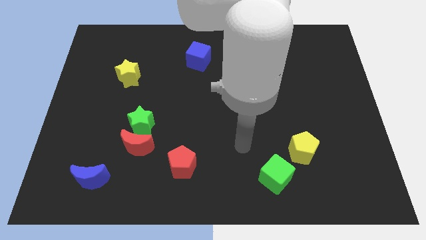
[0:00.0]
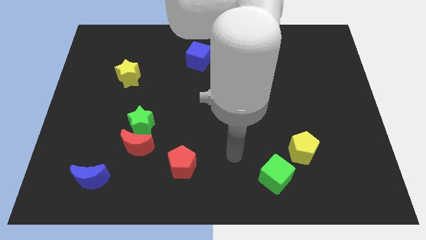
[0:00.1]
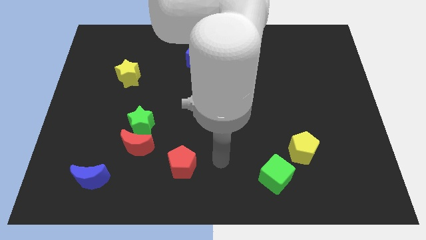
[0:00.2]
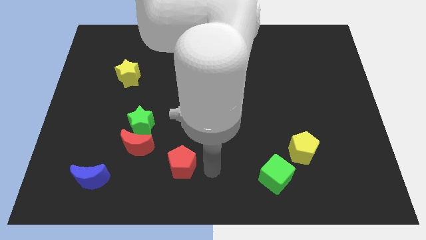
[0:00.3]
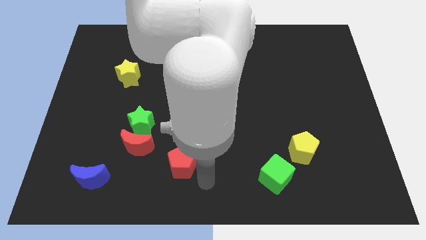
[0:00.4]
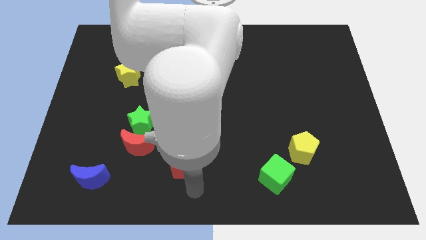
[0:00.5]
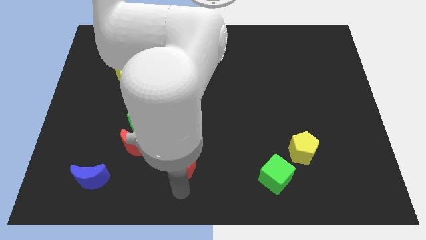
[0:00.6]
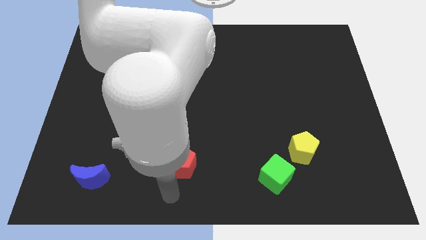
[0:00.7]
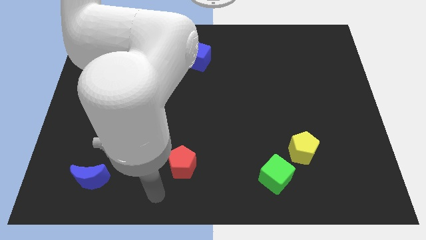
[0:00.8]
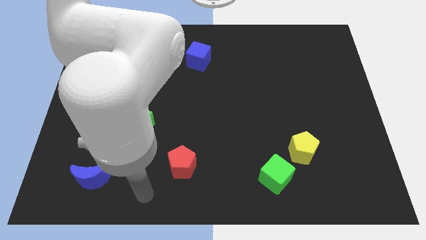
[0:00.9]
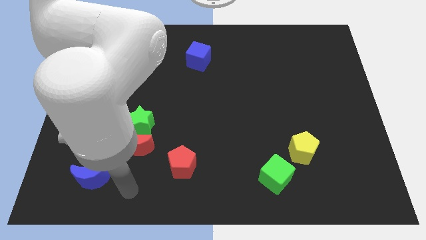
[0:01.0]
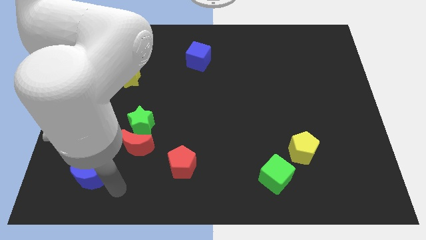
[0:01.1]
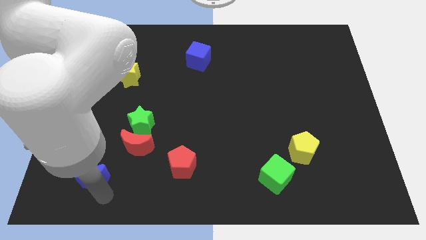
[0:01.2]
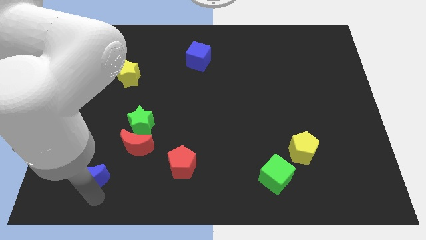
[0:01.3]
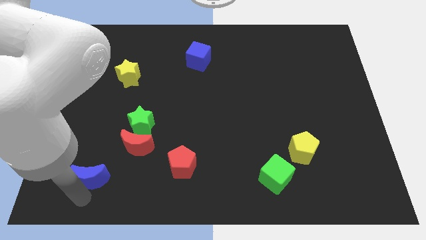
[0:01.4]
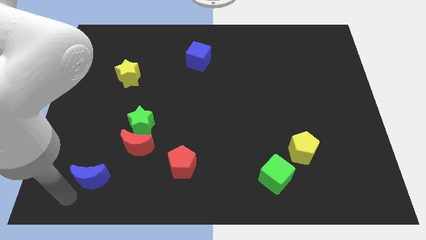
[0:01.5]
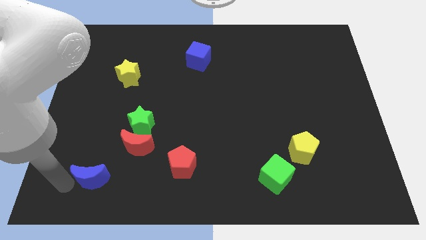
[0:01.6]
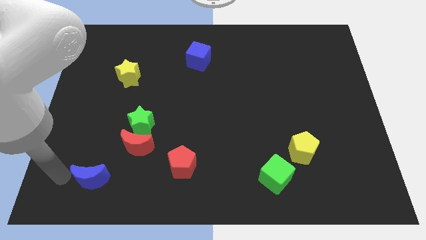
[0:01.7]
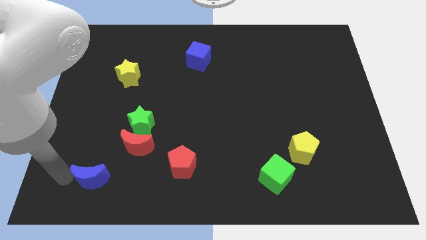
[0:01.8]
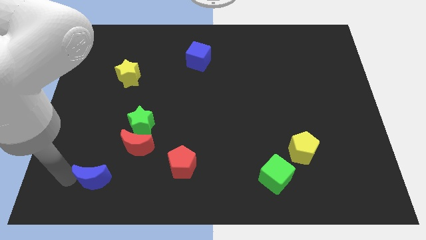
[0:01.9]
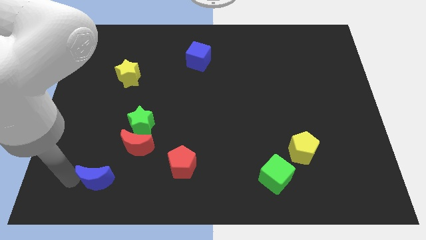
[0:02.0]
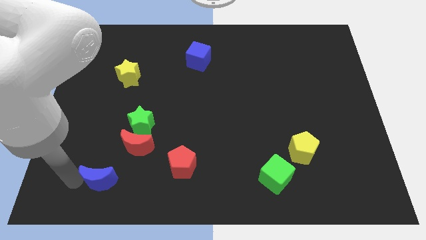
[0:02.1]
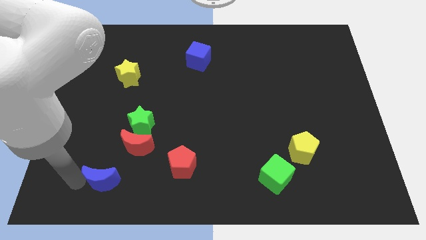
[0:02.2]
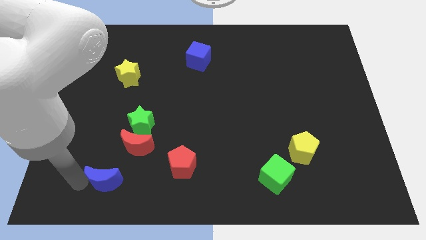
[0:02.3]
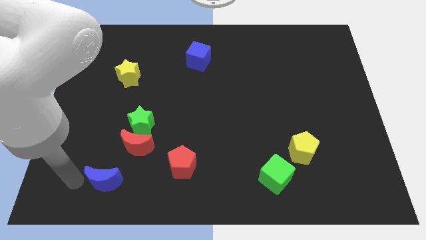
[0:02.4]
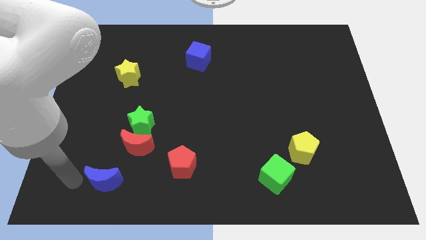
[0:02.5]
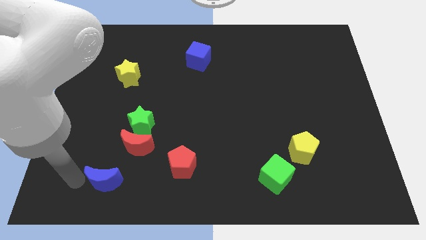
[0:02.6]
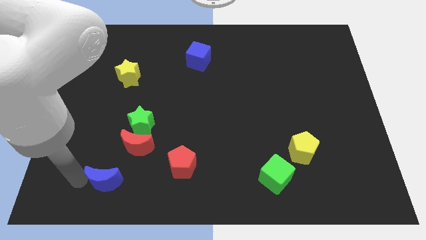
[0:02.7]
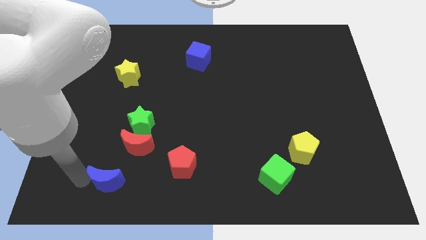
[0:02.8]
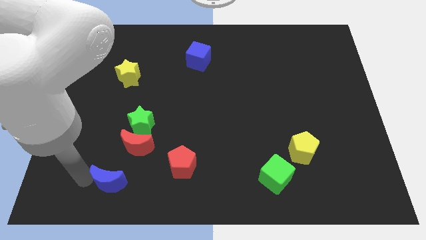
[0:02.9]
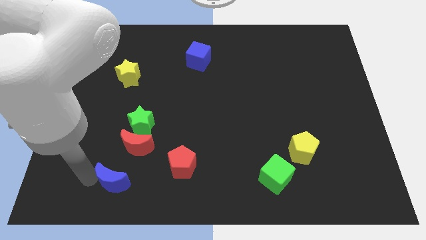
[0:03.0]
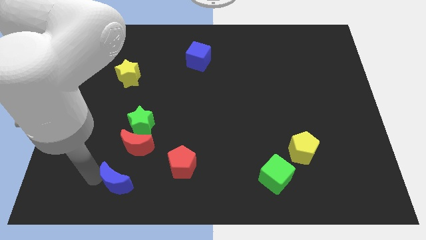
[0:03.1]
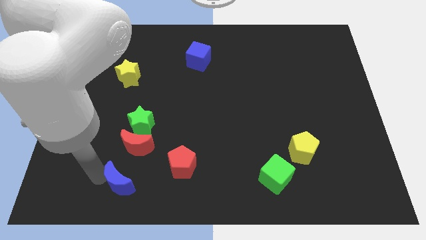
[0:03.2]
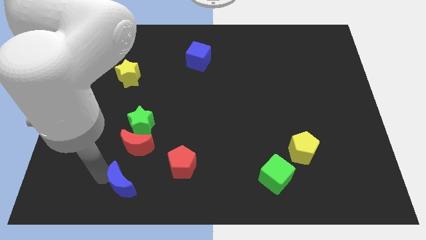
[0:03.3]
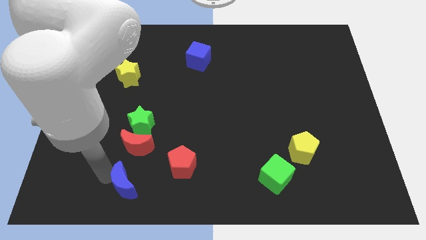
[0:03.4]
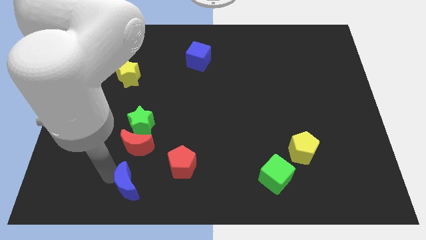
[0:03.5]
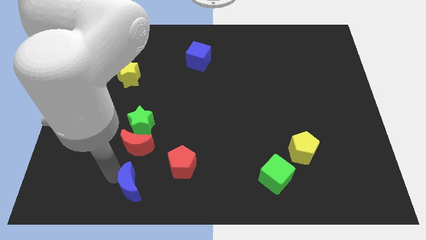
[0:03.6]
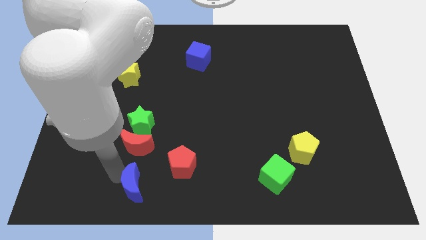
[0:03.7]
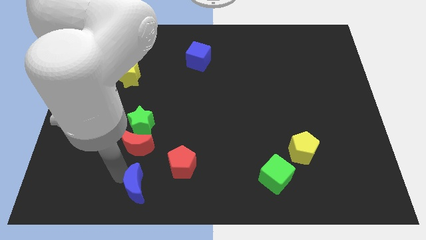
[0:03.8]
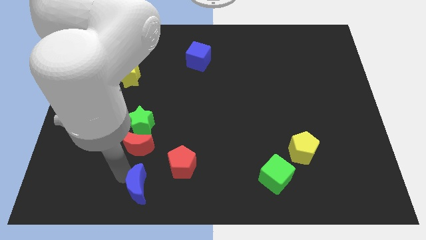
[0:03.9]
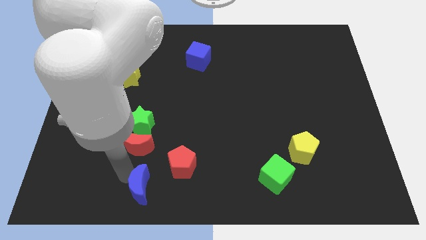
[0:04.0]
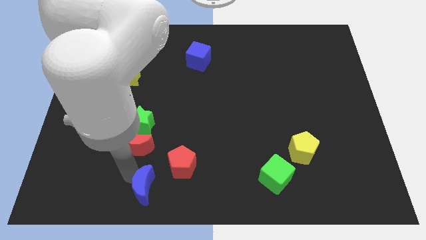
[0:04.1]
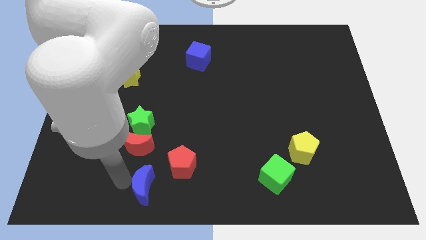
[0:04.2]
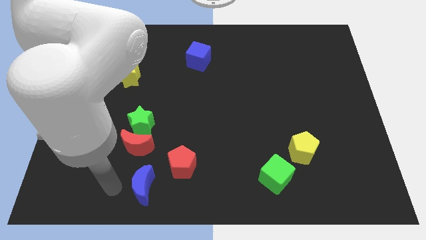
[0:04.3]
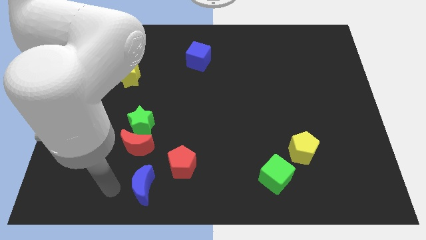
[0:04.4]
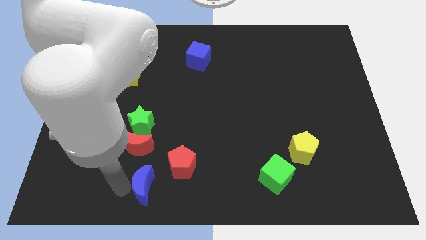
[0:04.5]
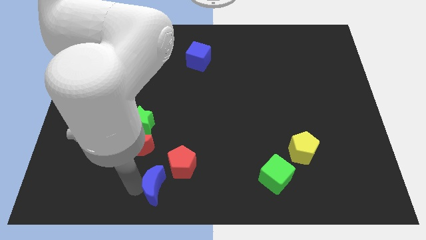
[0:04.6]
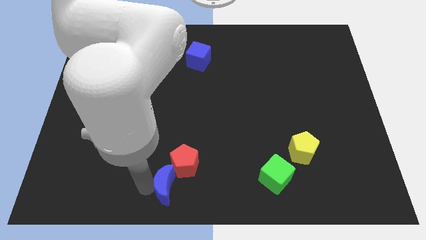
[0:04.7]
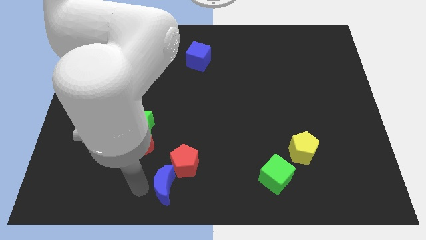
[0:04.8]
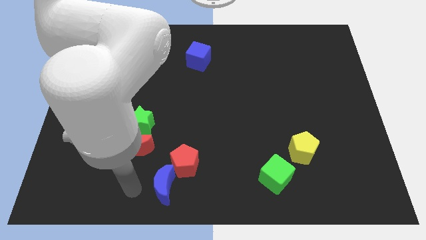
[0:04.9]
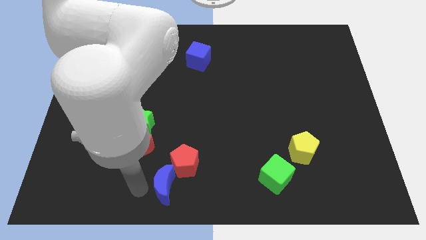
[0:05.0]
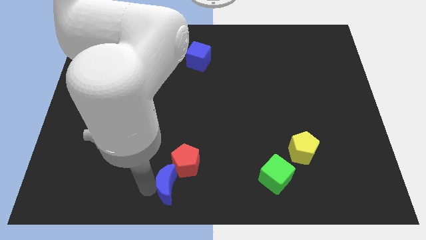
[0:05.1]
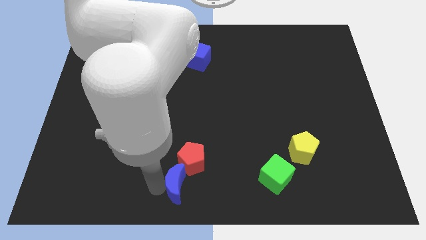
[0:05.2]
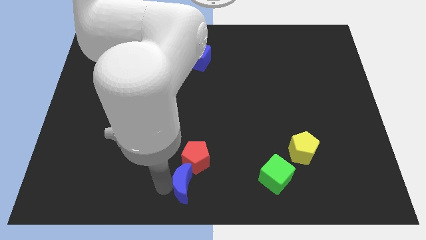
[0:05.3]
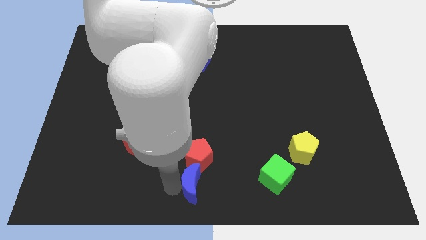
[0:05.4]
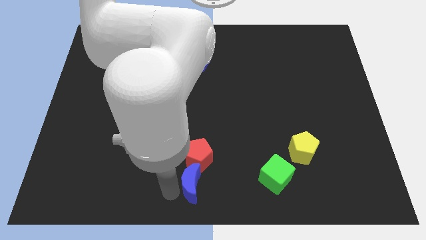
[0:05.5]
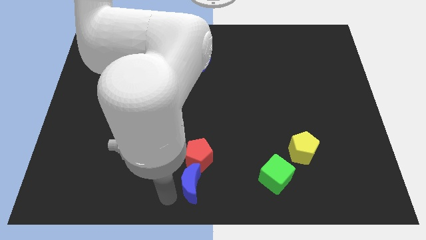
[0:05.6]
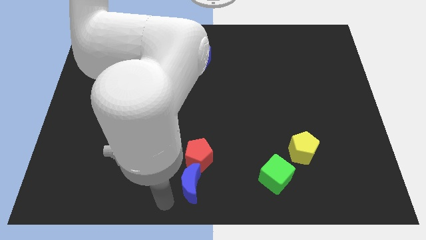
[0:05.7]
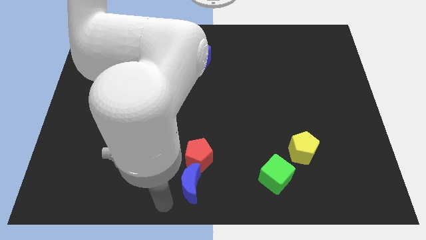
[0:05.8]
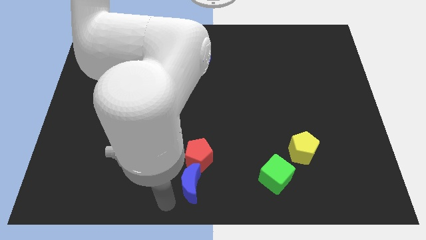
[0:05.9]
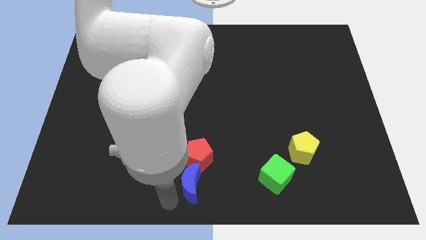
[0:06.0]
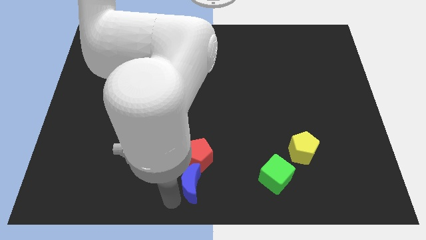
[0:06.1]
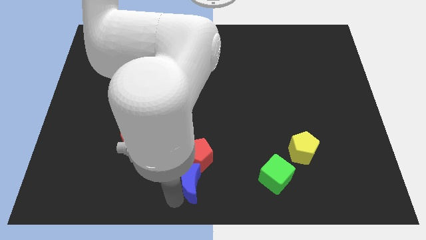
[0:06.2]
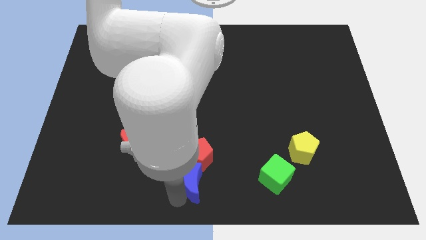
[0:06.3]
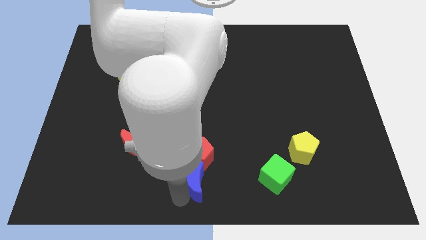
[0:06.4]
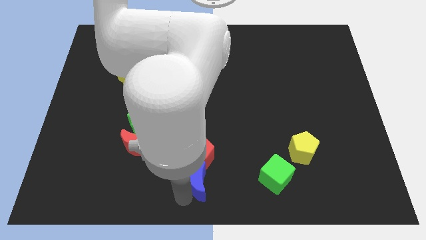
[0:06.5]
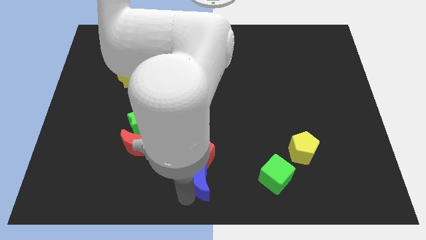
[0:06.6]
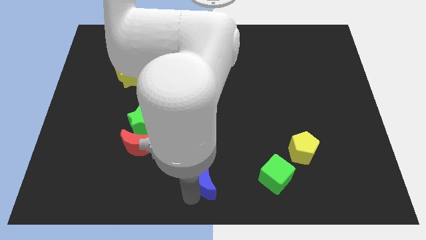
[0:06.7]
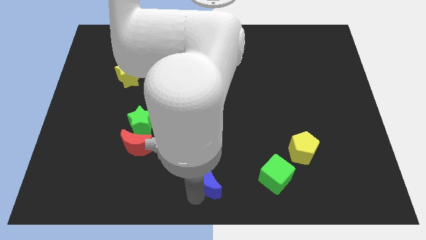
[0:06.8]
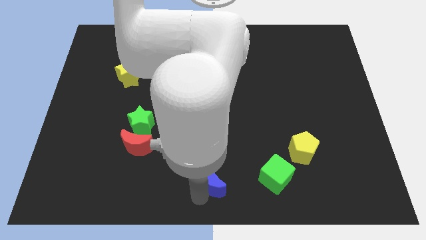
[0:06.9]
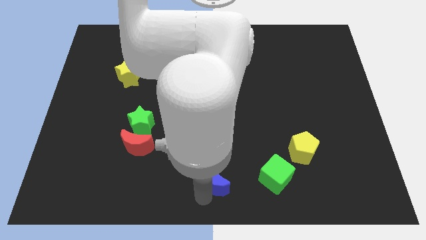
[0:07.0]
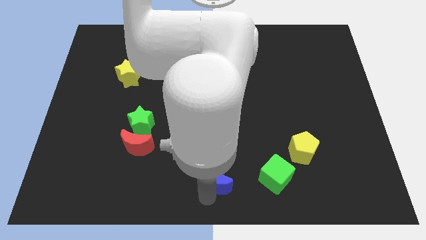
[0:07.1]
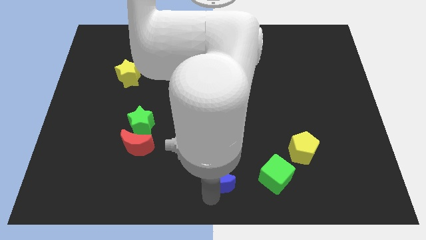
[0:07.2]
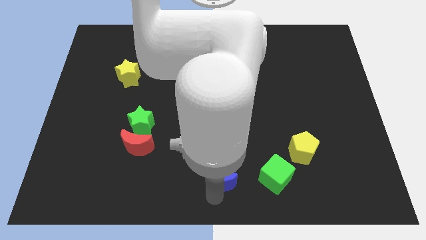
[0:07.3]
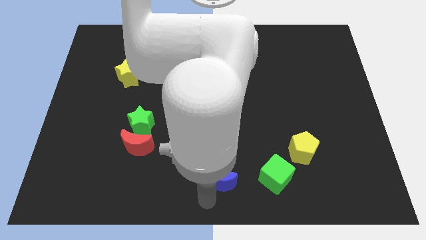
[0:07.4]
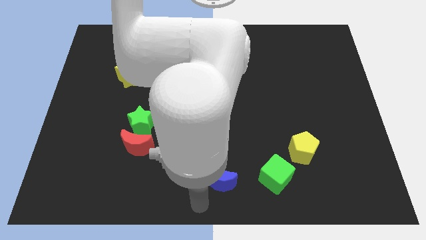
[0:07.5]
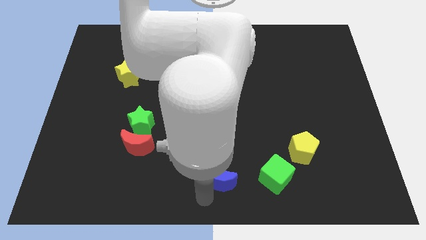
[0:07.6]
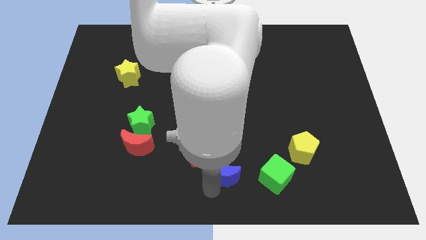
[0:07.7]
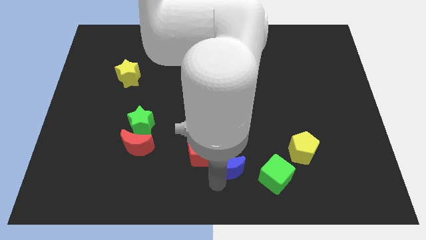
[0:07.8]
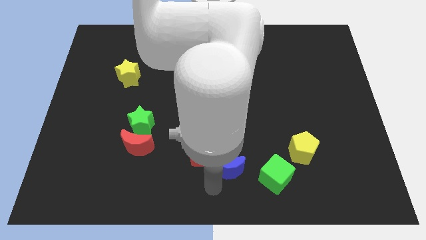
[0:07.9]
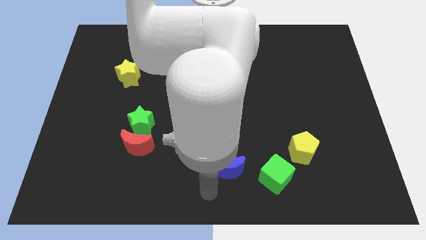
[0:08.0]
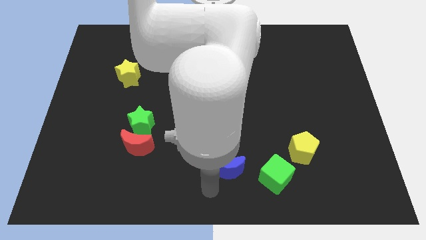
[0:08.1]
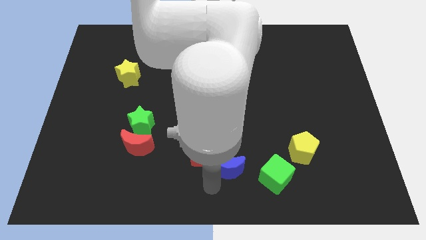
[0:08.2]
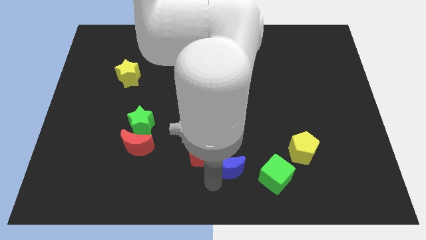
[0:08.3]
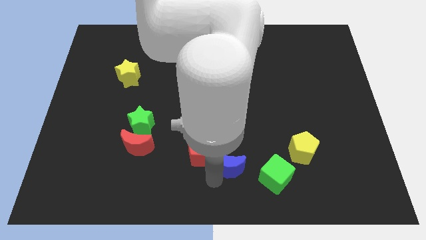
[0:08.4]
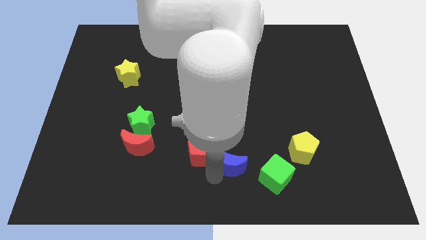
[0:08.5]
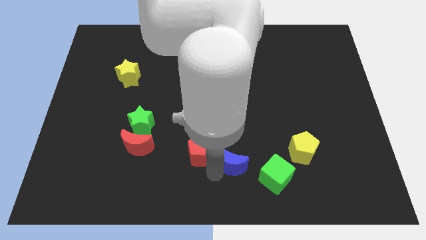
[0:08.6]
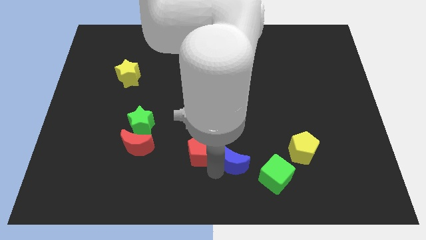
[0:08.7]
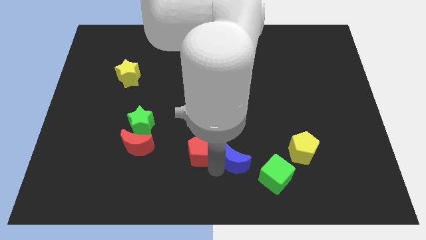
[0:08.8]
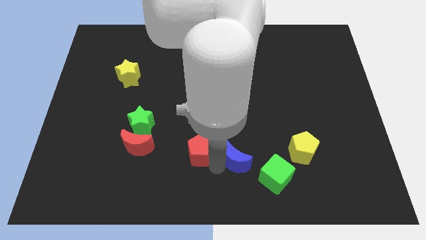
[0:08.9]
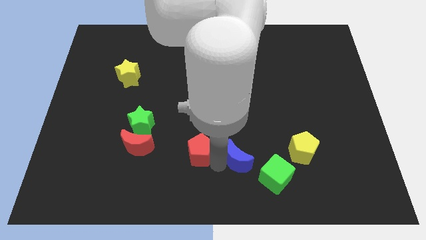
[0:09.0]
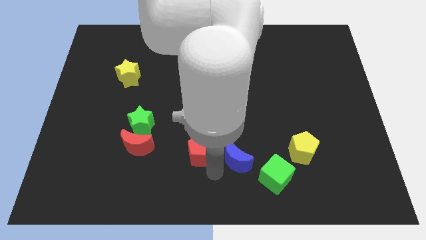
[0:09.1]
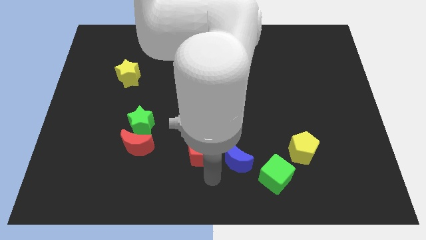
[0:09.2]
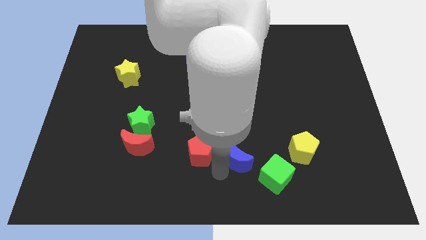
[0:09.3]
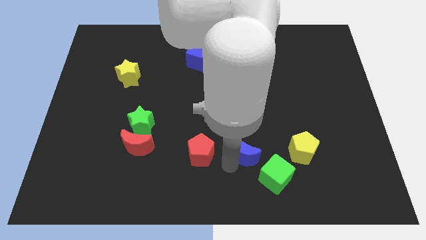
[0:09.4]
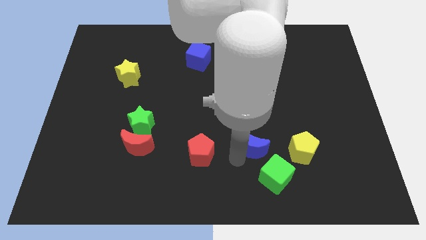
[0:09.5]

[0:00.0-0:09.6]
put the blue moon to the top side of the green cube
